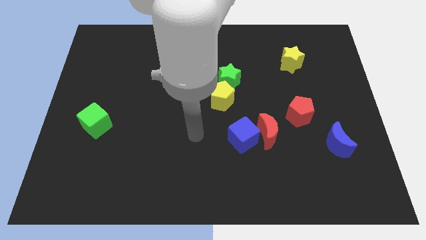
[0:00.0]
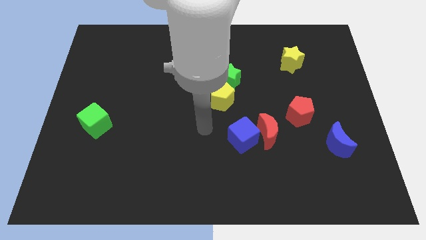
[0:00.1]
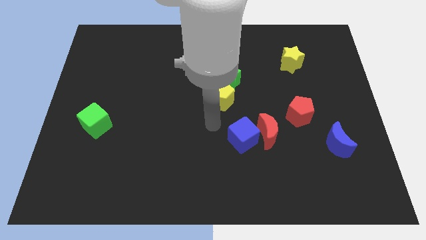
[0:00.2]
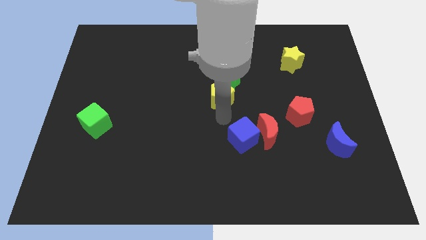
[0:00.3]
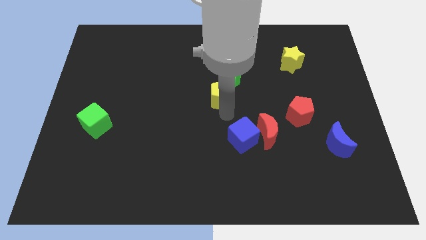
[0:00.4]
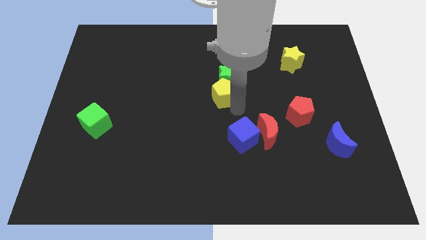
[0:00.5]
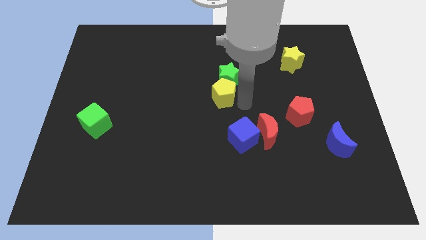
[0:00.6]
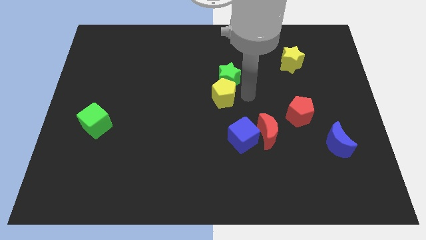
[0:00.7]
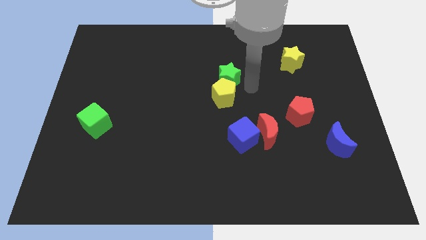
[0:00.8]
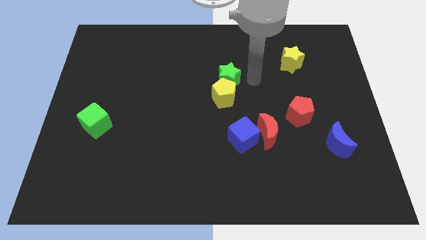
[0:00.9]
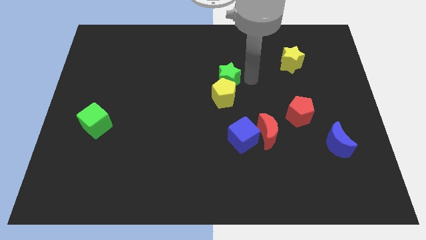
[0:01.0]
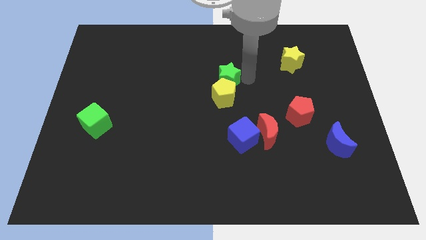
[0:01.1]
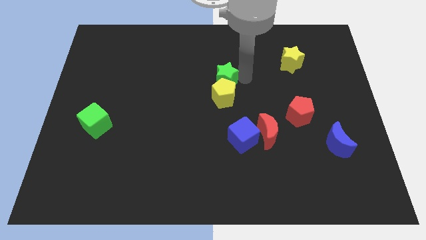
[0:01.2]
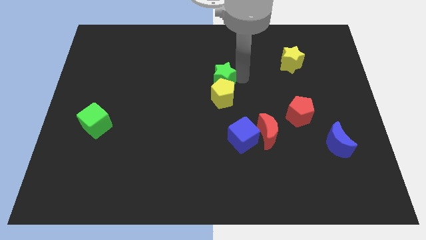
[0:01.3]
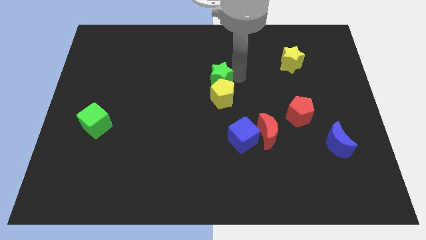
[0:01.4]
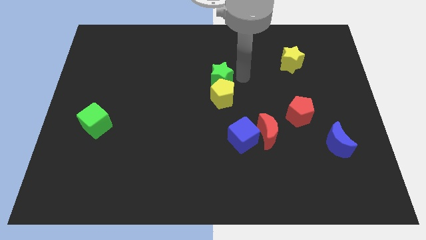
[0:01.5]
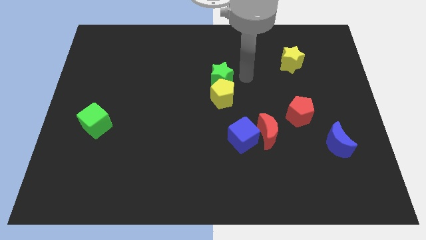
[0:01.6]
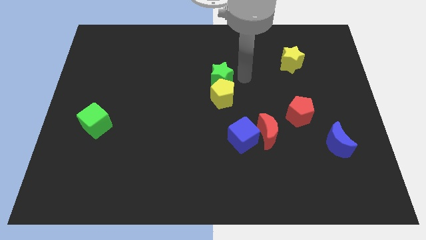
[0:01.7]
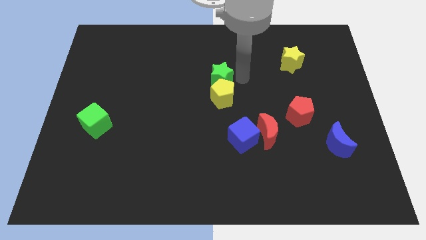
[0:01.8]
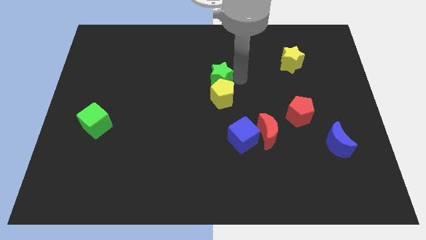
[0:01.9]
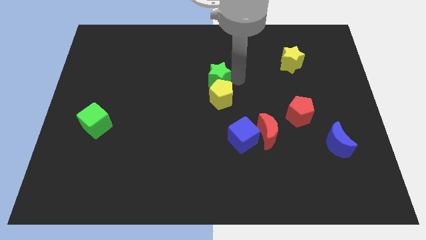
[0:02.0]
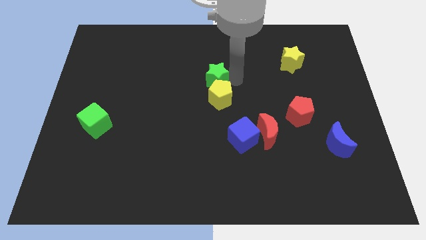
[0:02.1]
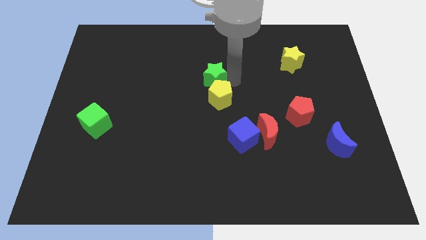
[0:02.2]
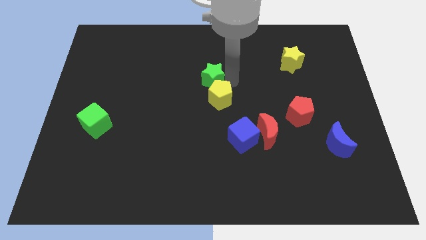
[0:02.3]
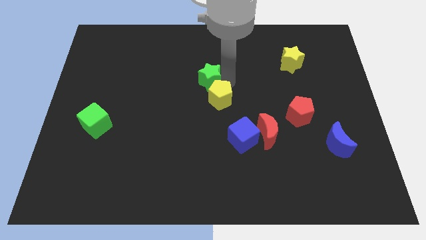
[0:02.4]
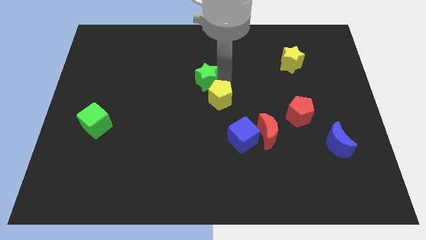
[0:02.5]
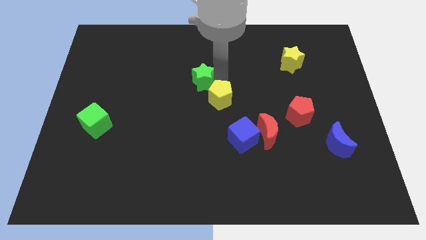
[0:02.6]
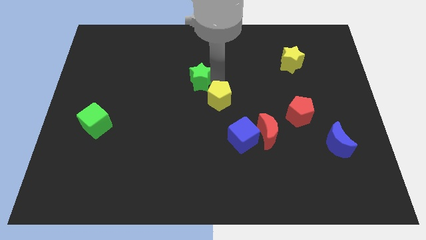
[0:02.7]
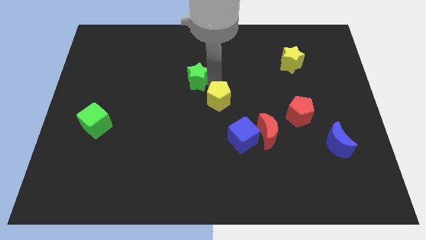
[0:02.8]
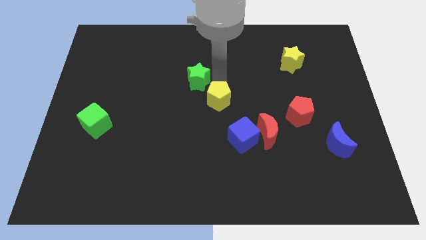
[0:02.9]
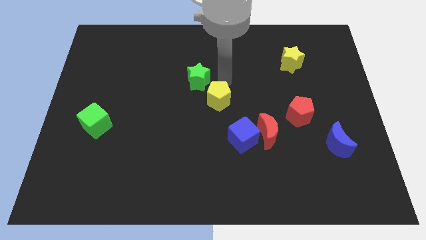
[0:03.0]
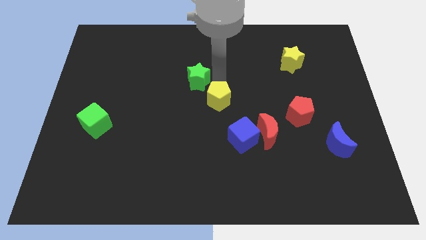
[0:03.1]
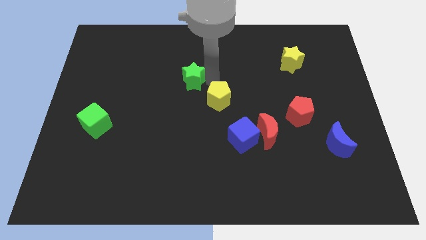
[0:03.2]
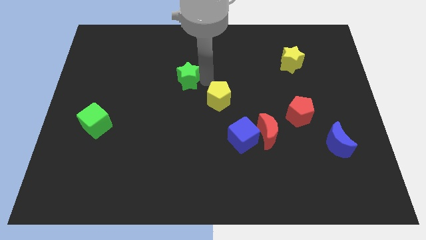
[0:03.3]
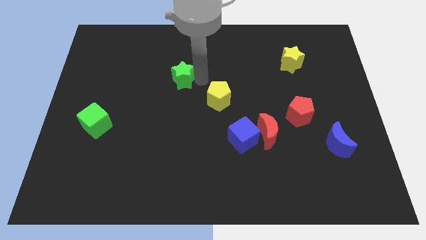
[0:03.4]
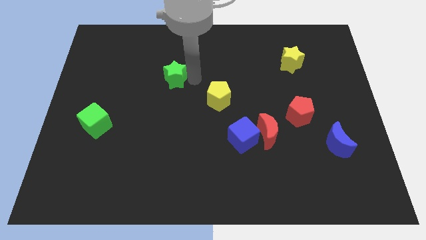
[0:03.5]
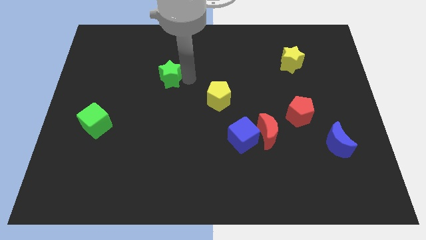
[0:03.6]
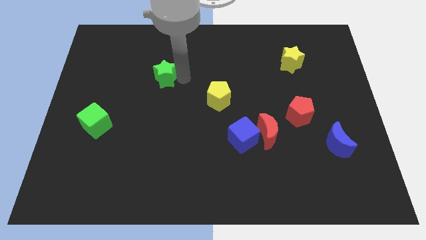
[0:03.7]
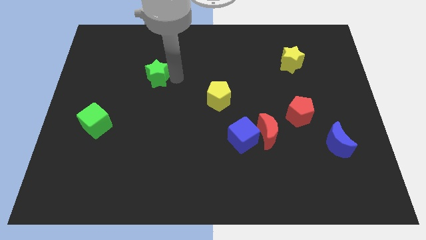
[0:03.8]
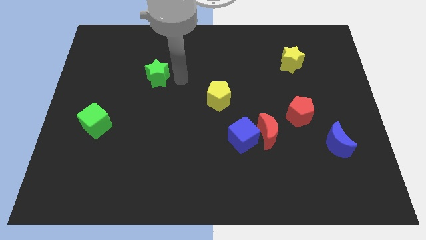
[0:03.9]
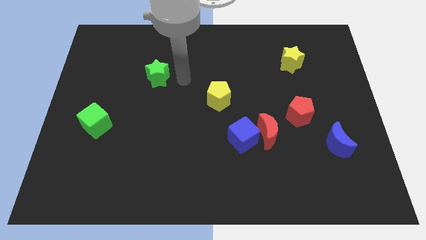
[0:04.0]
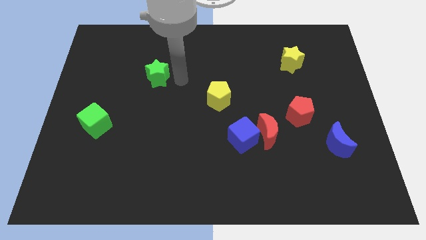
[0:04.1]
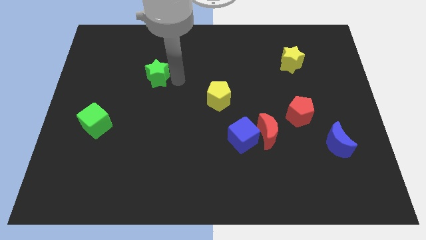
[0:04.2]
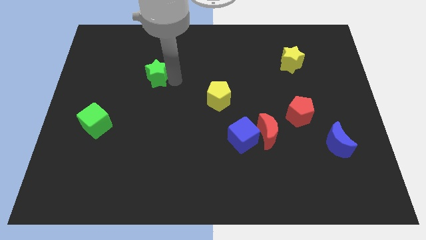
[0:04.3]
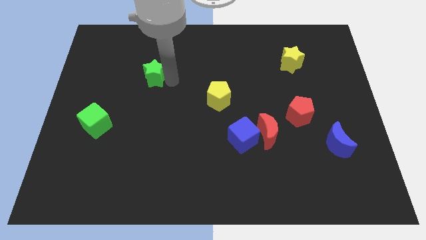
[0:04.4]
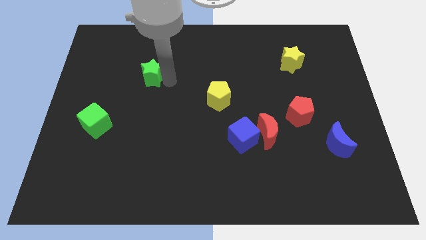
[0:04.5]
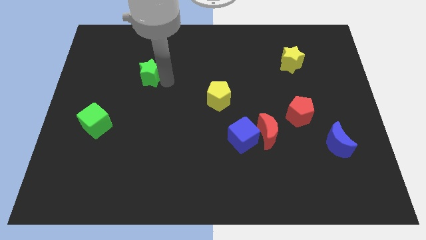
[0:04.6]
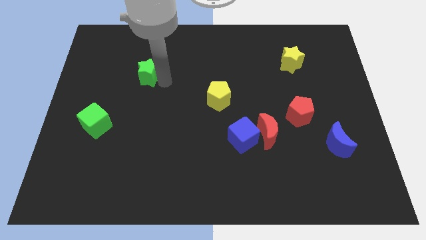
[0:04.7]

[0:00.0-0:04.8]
slide the green star left

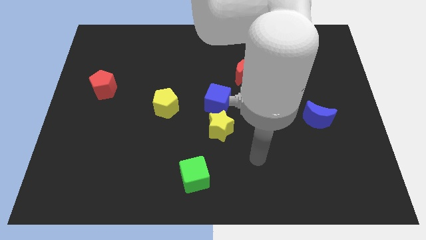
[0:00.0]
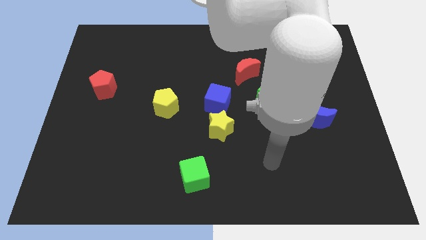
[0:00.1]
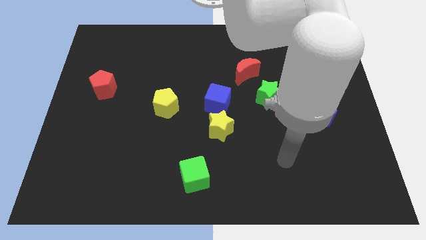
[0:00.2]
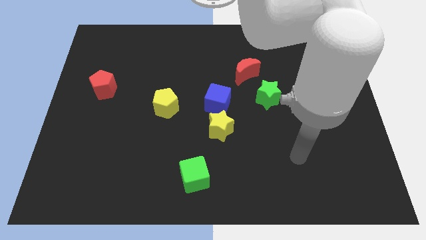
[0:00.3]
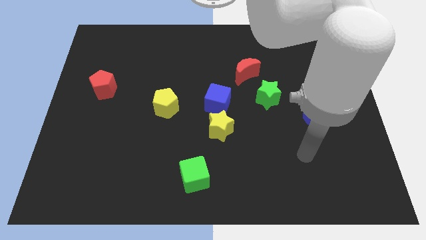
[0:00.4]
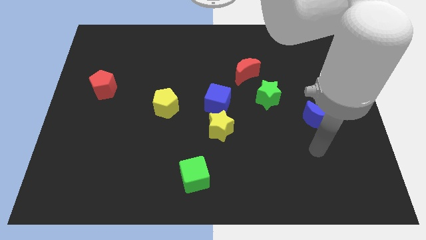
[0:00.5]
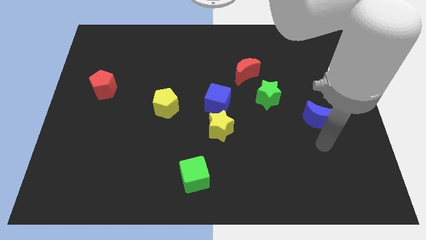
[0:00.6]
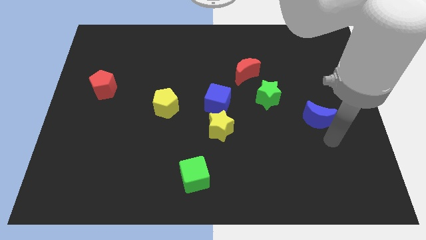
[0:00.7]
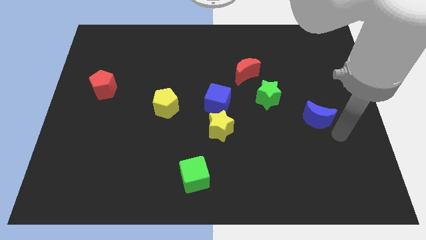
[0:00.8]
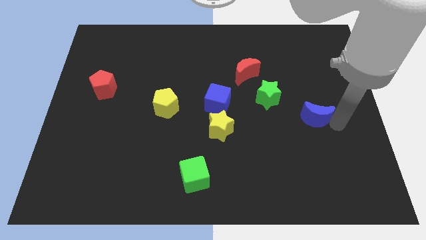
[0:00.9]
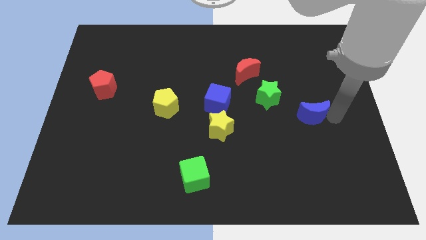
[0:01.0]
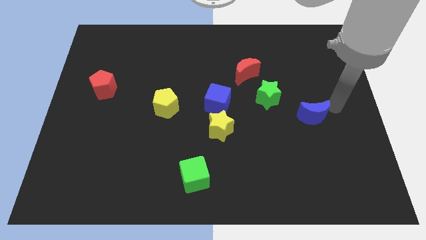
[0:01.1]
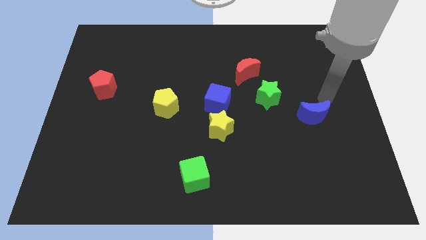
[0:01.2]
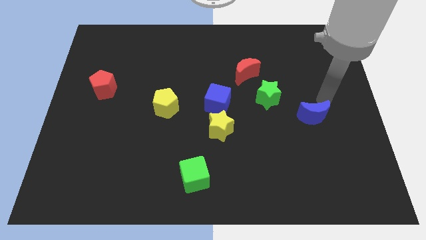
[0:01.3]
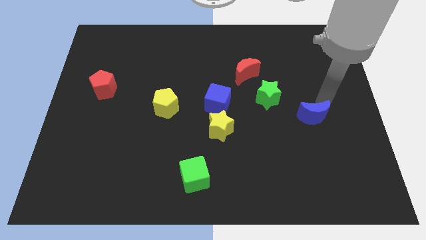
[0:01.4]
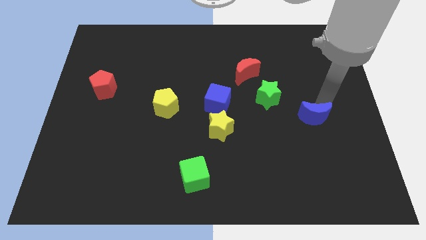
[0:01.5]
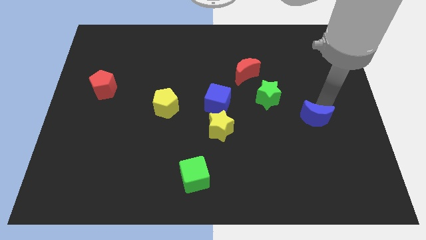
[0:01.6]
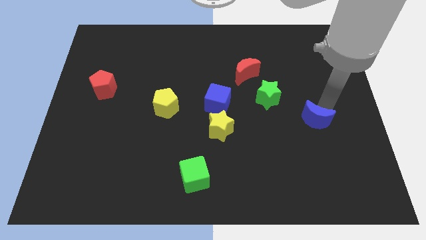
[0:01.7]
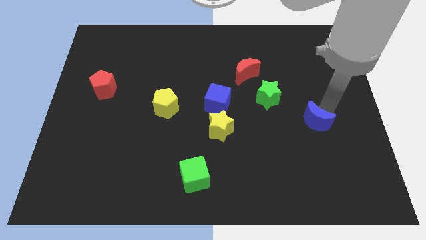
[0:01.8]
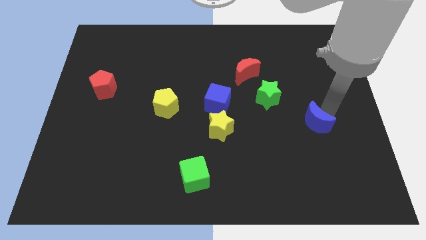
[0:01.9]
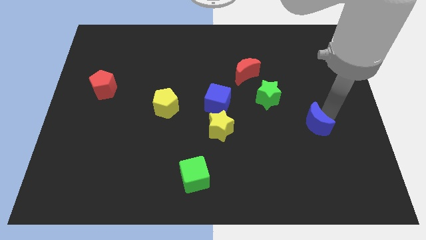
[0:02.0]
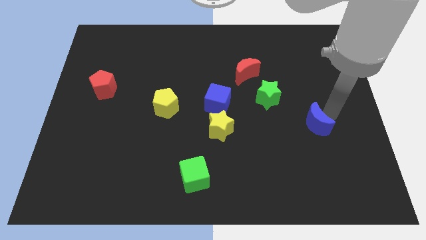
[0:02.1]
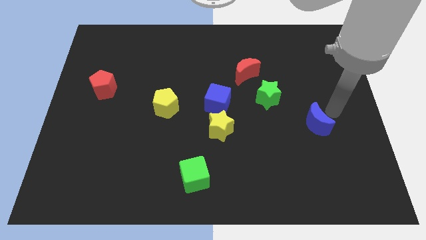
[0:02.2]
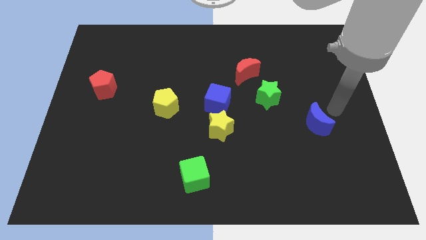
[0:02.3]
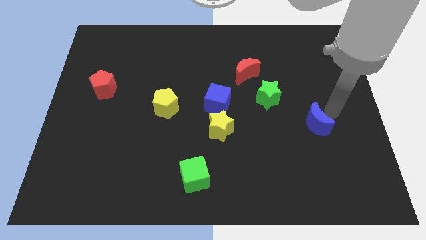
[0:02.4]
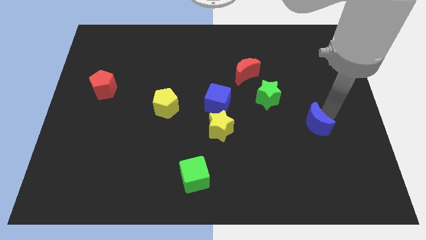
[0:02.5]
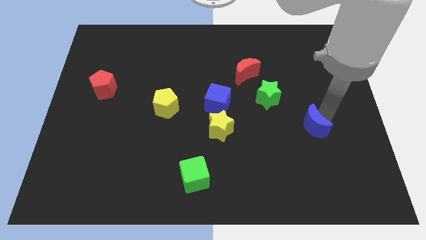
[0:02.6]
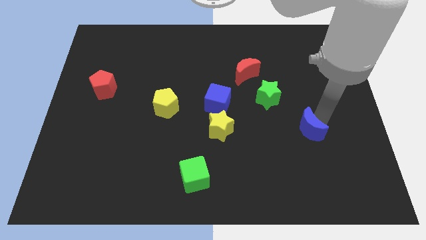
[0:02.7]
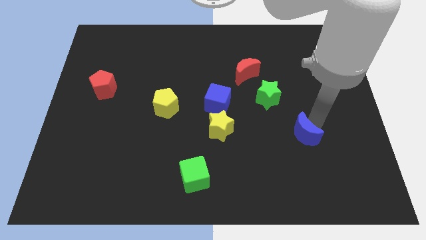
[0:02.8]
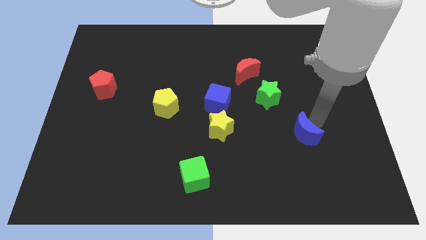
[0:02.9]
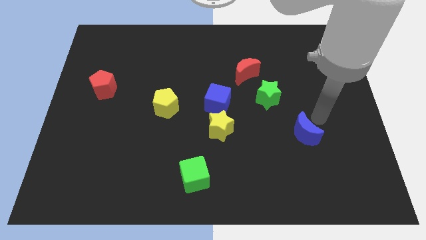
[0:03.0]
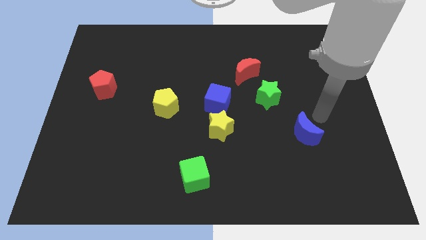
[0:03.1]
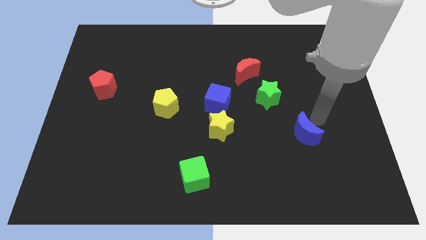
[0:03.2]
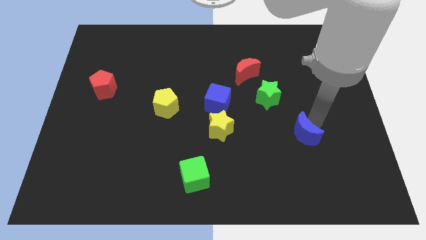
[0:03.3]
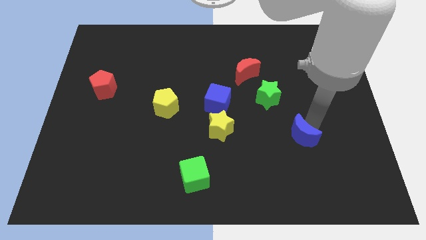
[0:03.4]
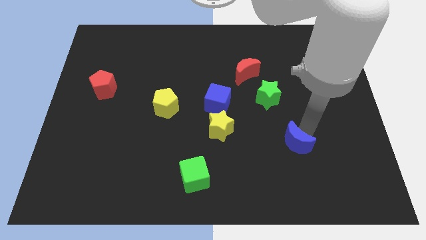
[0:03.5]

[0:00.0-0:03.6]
move the blue moon down and to the left diagonally somewhat
